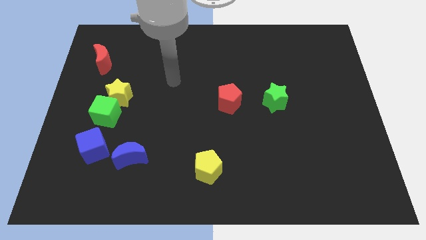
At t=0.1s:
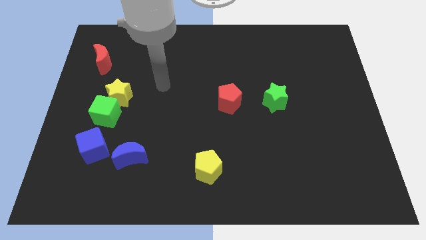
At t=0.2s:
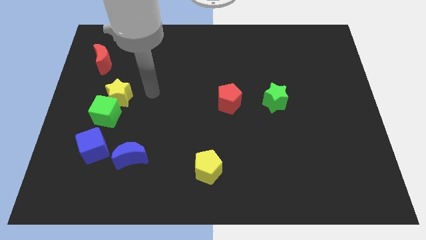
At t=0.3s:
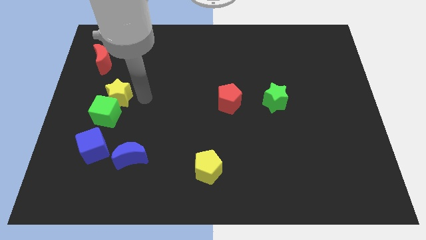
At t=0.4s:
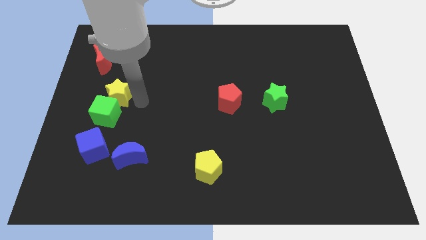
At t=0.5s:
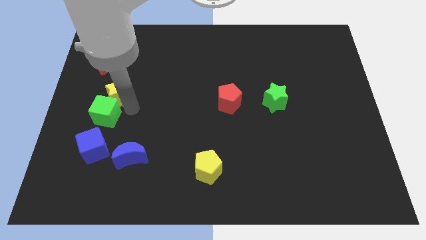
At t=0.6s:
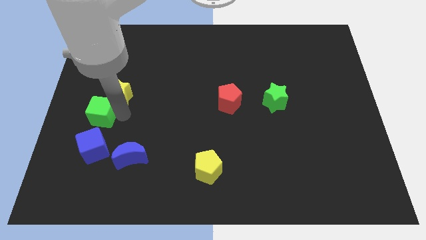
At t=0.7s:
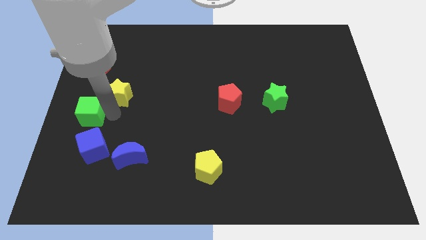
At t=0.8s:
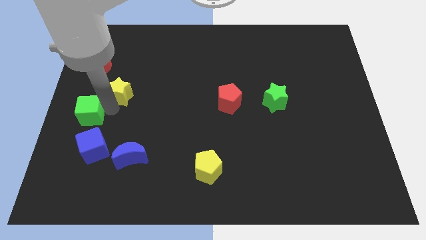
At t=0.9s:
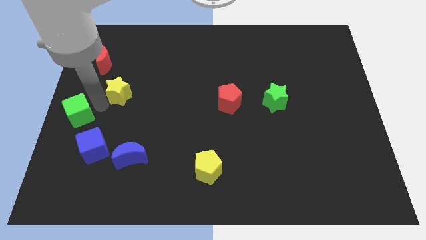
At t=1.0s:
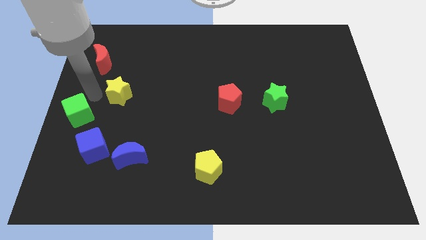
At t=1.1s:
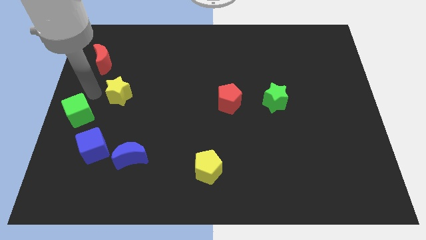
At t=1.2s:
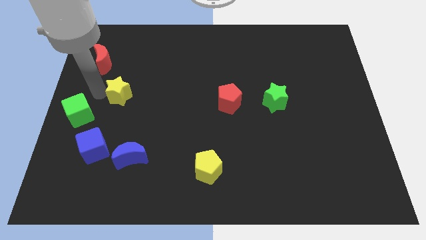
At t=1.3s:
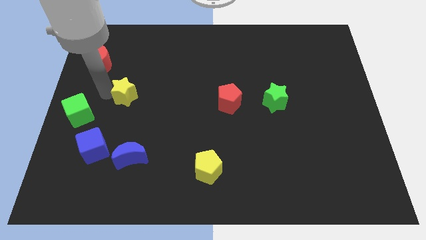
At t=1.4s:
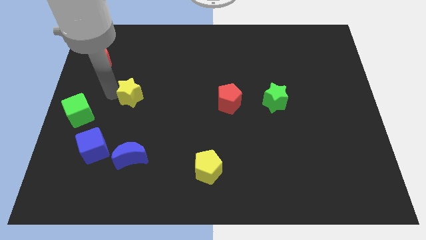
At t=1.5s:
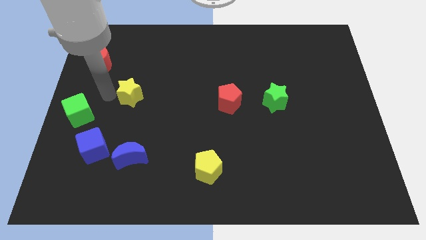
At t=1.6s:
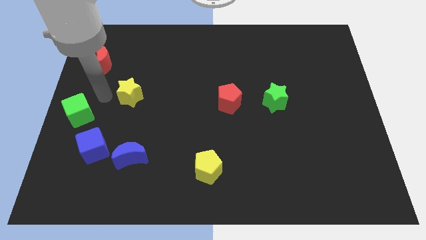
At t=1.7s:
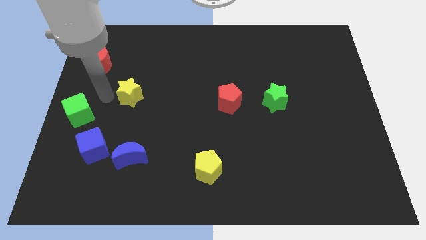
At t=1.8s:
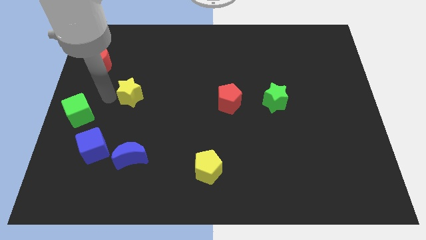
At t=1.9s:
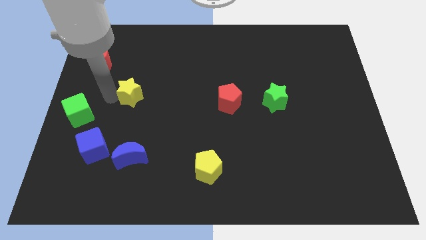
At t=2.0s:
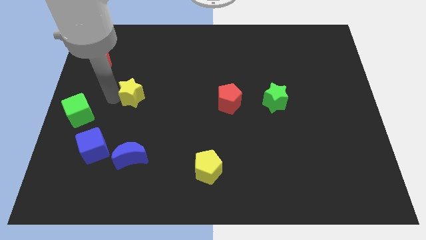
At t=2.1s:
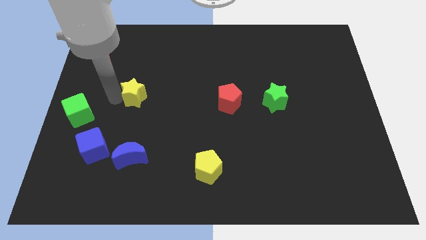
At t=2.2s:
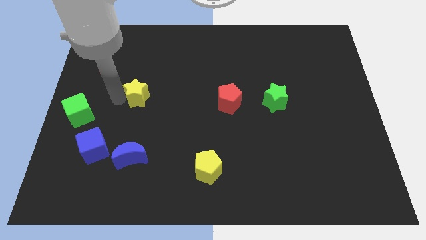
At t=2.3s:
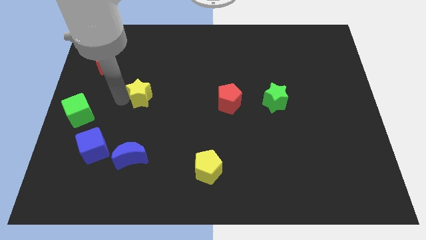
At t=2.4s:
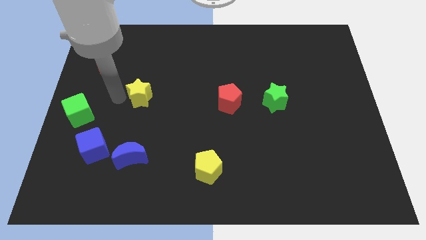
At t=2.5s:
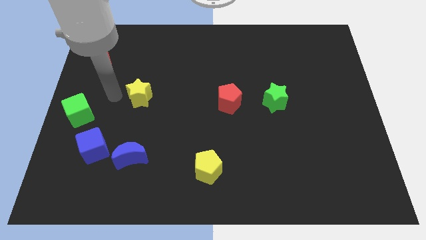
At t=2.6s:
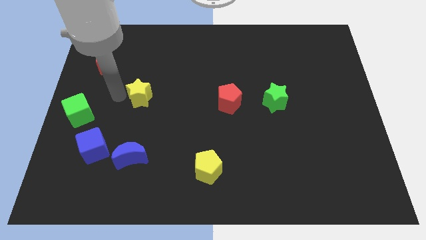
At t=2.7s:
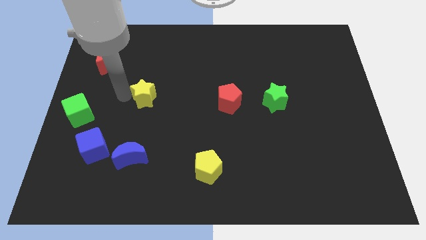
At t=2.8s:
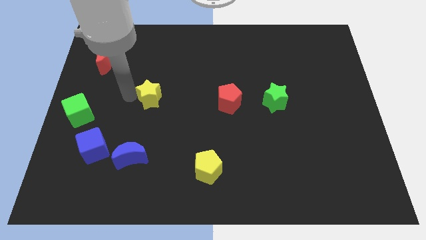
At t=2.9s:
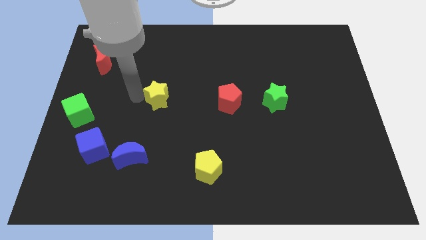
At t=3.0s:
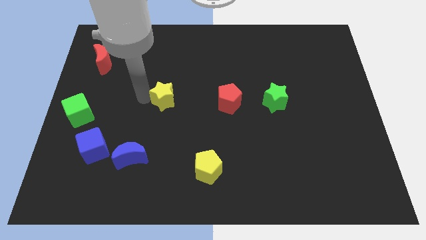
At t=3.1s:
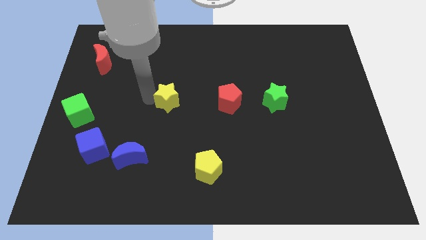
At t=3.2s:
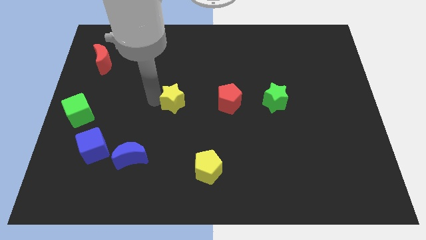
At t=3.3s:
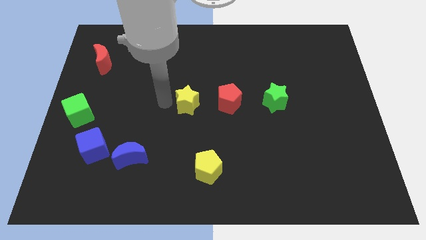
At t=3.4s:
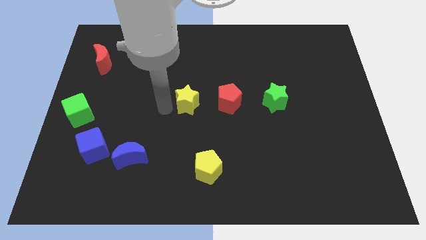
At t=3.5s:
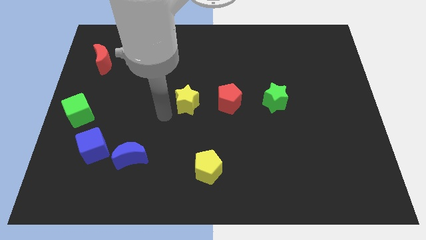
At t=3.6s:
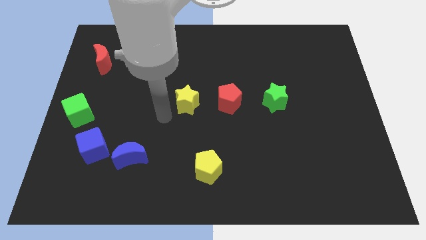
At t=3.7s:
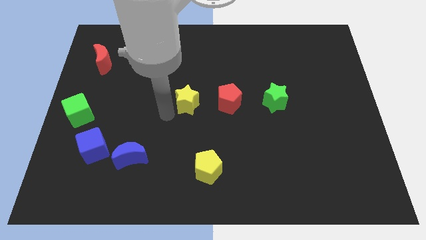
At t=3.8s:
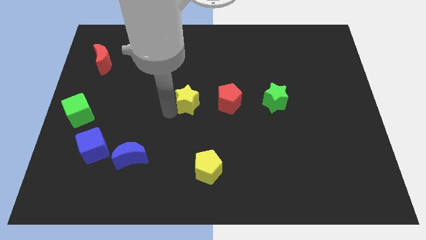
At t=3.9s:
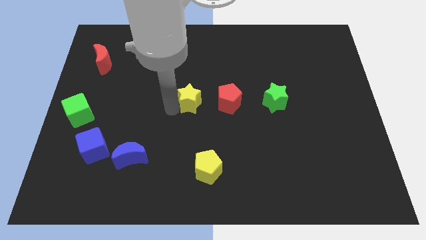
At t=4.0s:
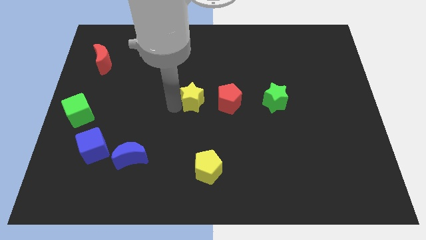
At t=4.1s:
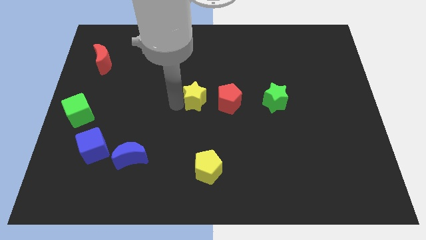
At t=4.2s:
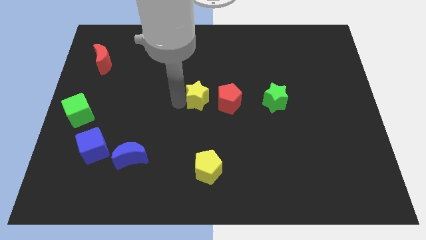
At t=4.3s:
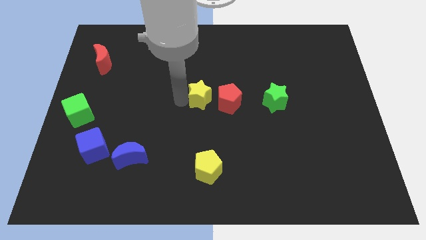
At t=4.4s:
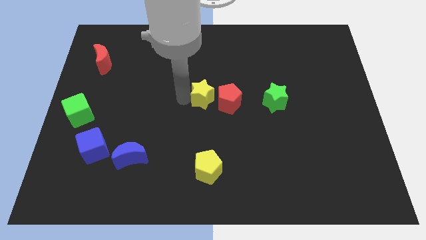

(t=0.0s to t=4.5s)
slide the yellow star right

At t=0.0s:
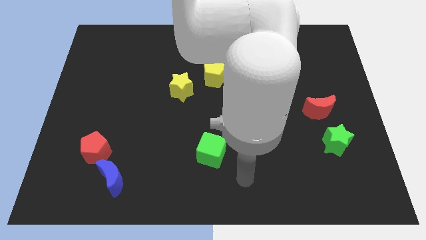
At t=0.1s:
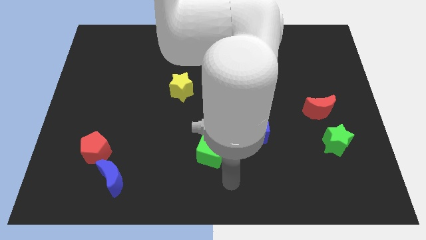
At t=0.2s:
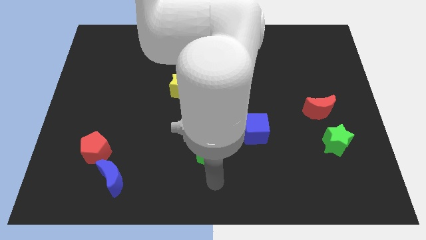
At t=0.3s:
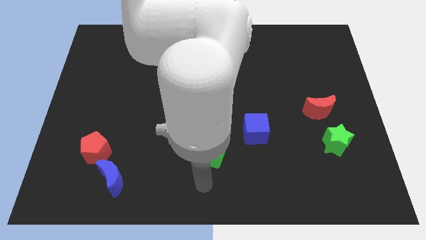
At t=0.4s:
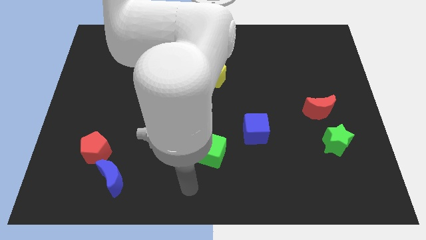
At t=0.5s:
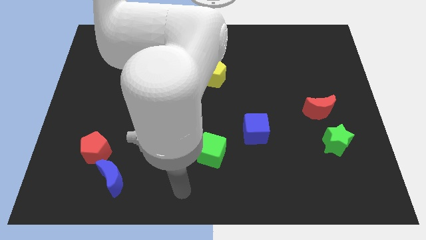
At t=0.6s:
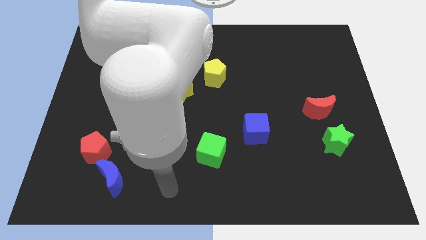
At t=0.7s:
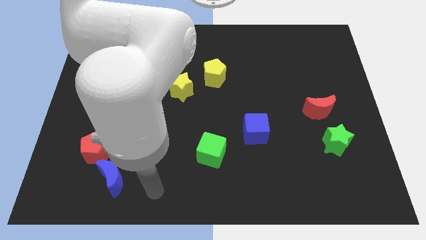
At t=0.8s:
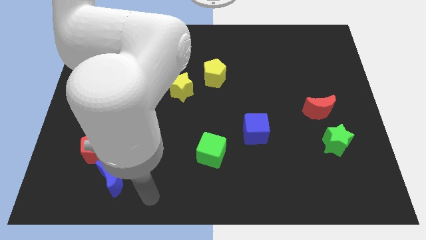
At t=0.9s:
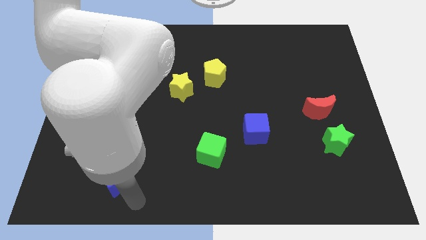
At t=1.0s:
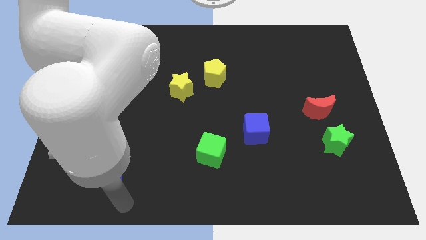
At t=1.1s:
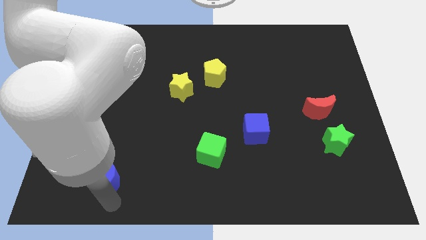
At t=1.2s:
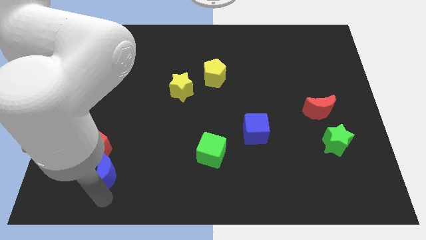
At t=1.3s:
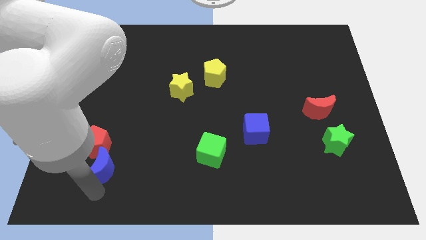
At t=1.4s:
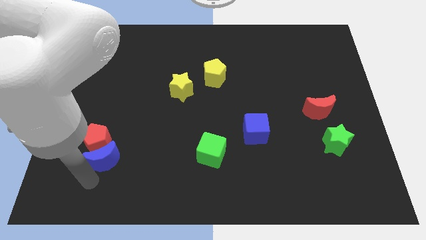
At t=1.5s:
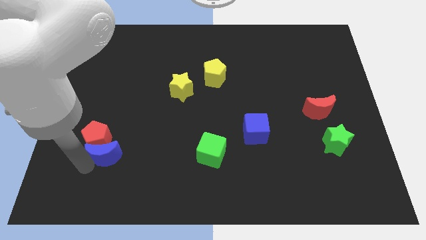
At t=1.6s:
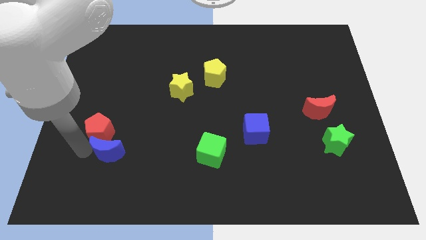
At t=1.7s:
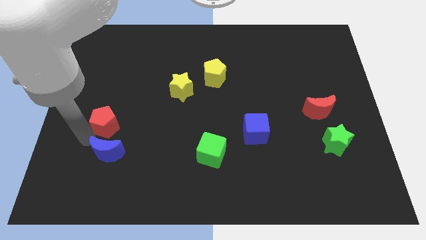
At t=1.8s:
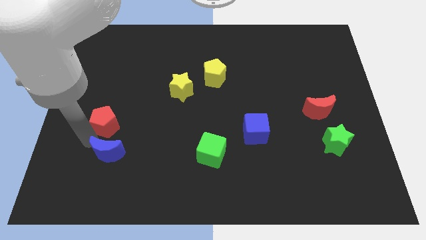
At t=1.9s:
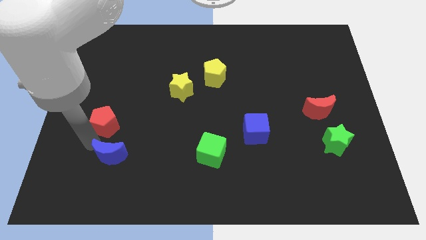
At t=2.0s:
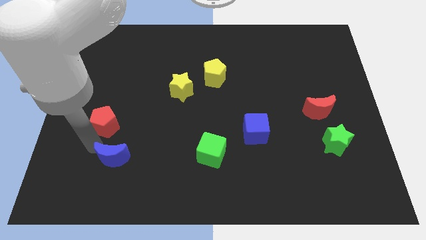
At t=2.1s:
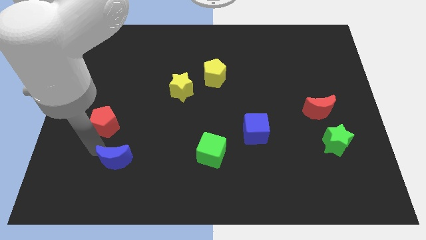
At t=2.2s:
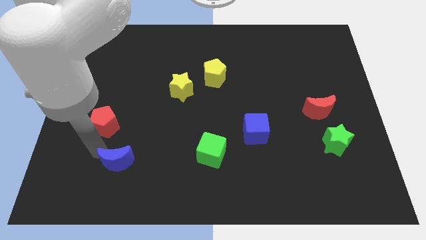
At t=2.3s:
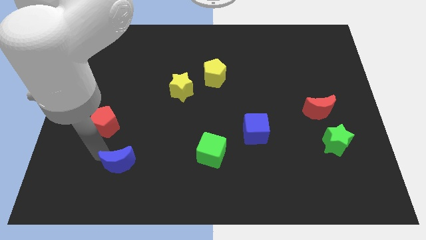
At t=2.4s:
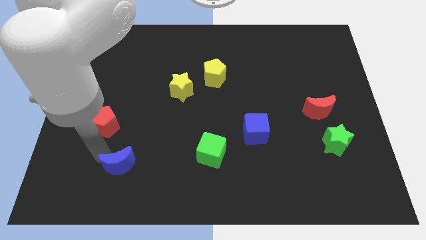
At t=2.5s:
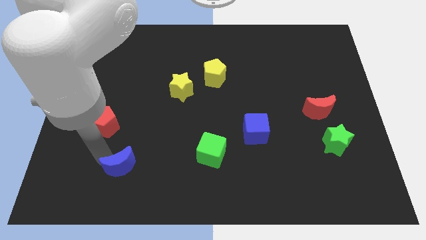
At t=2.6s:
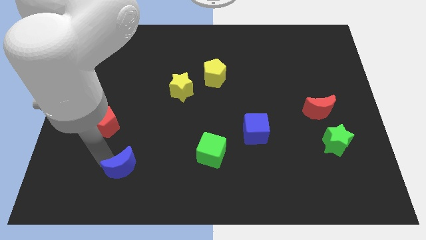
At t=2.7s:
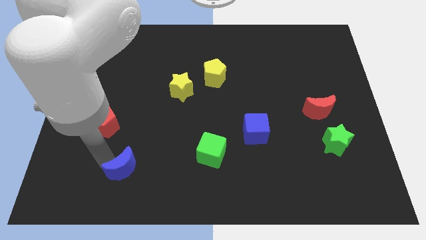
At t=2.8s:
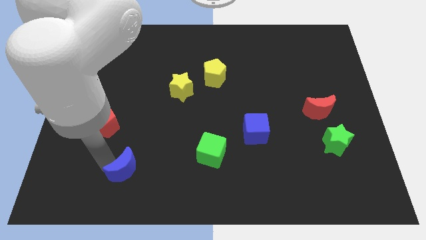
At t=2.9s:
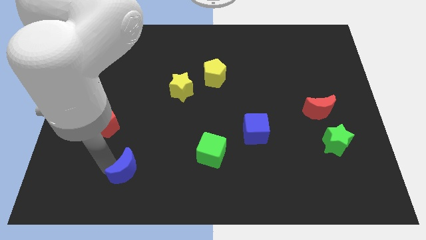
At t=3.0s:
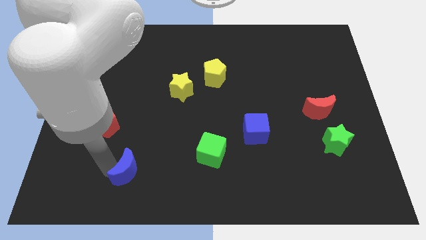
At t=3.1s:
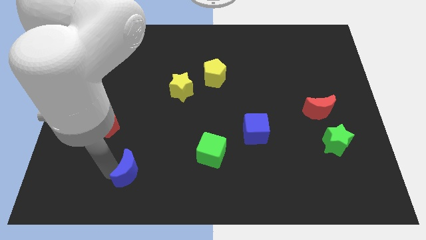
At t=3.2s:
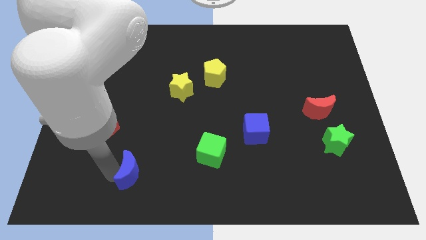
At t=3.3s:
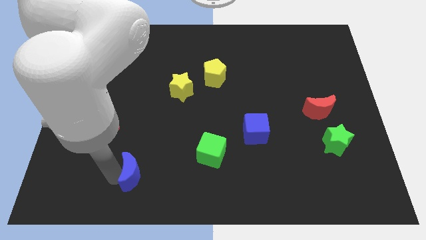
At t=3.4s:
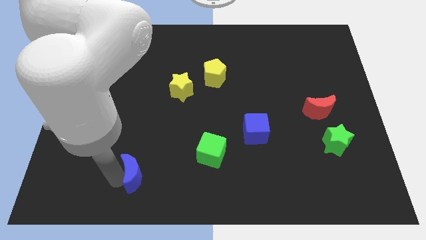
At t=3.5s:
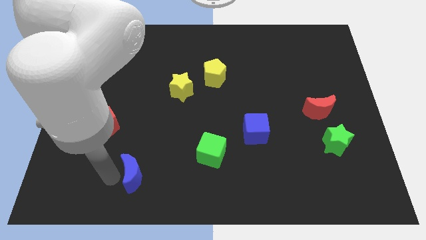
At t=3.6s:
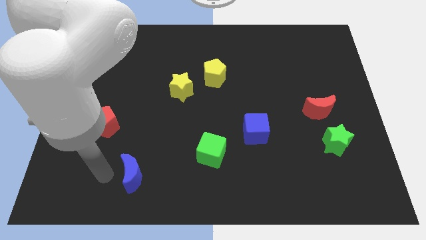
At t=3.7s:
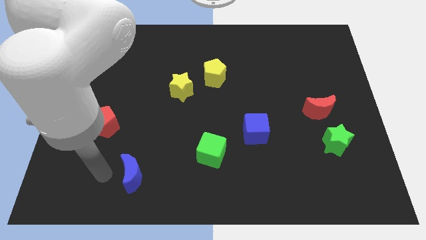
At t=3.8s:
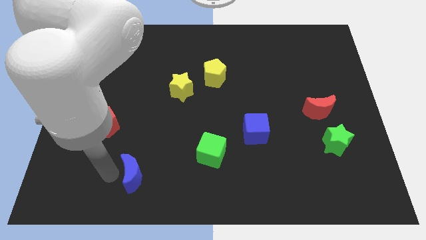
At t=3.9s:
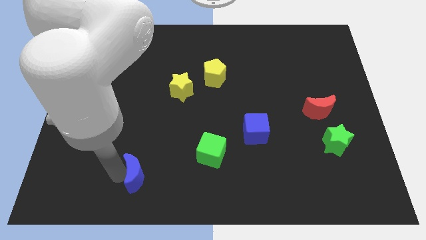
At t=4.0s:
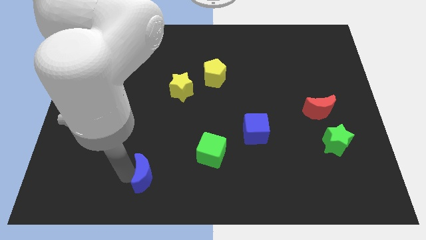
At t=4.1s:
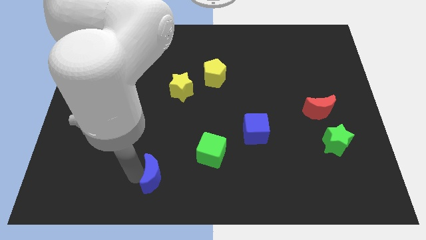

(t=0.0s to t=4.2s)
slightly move the blue moon right
